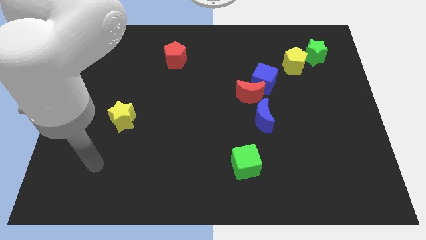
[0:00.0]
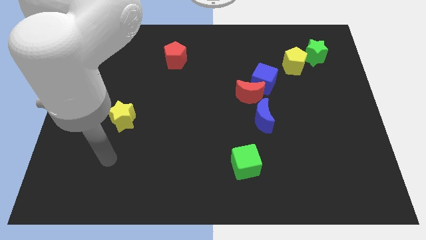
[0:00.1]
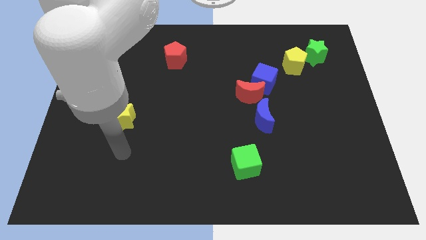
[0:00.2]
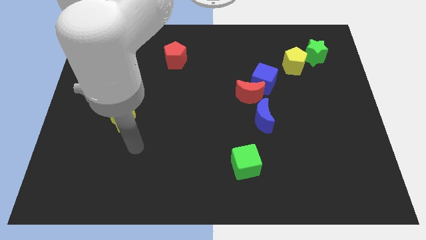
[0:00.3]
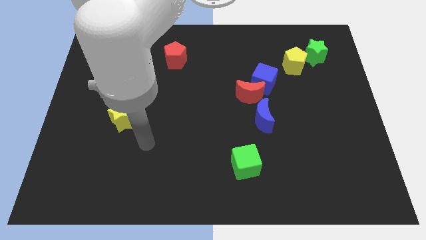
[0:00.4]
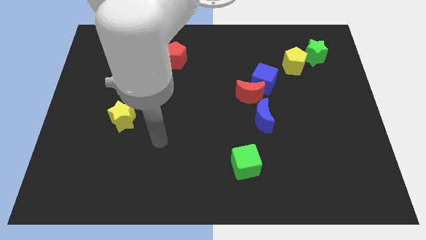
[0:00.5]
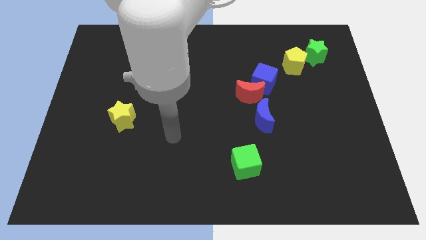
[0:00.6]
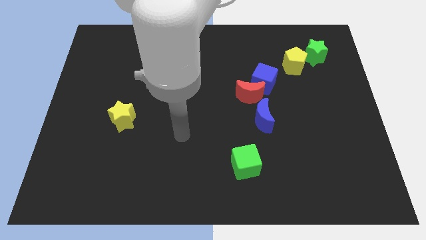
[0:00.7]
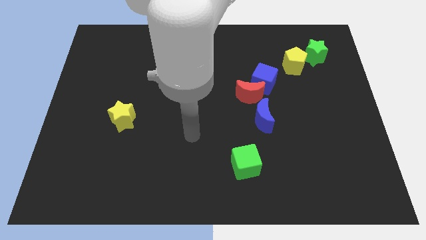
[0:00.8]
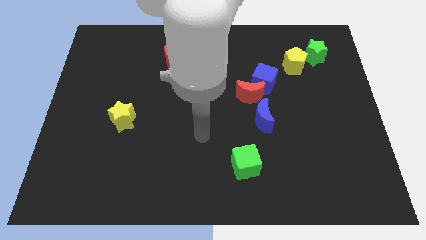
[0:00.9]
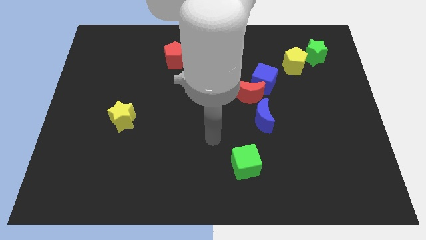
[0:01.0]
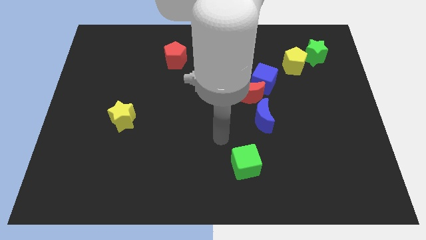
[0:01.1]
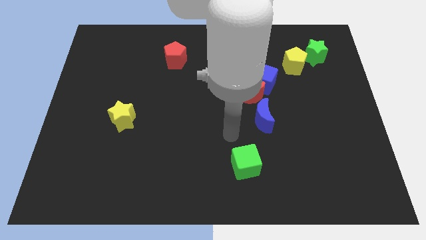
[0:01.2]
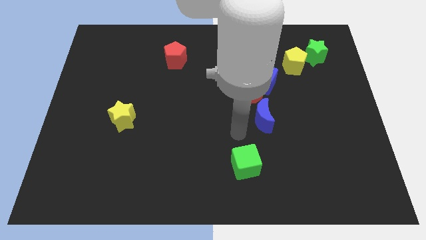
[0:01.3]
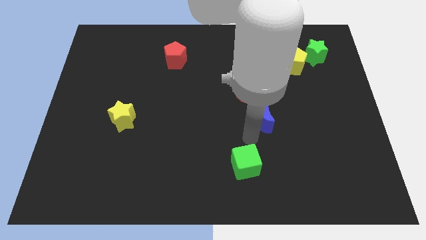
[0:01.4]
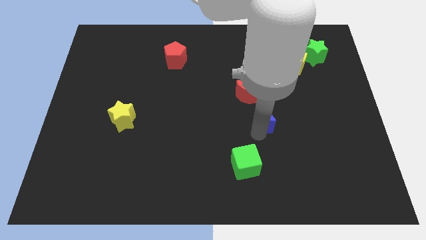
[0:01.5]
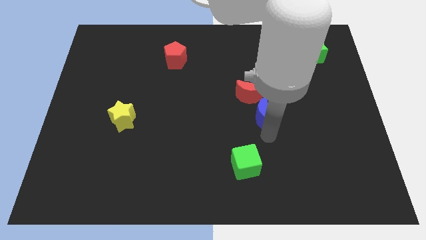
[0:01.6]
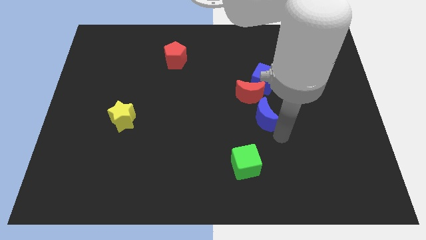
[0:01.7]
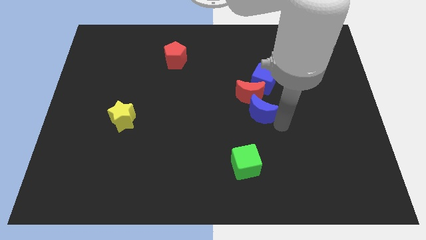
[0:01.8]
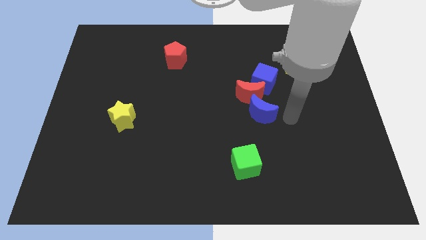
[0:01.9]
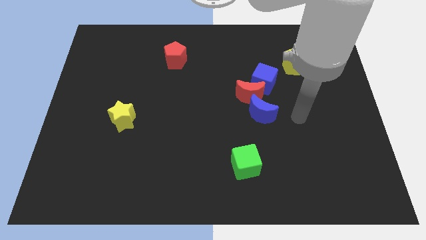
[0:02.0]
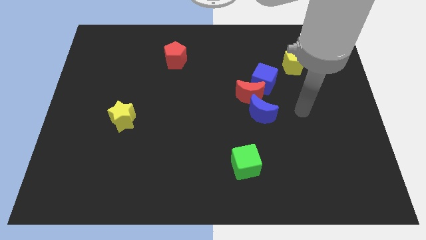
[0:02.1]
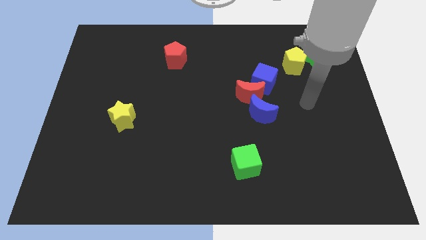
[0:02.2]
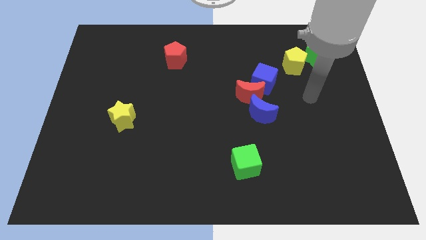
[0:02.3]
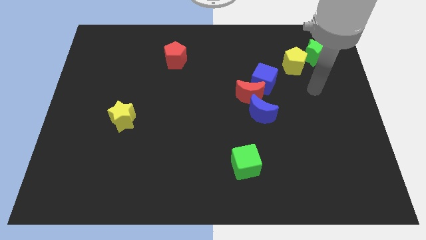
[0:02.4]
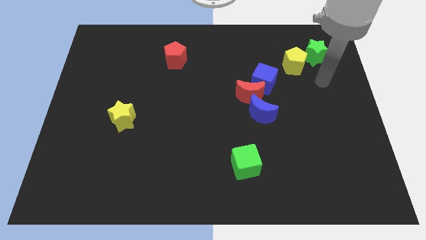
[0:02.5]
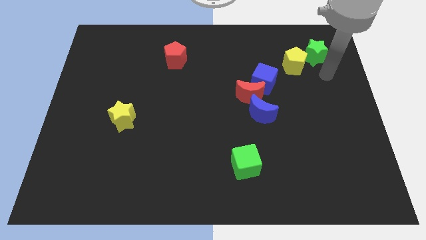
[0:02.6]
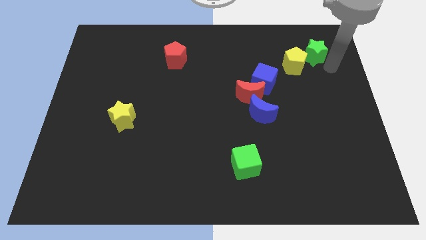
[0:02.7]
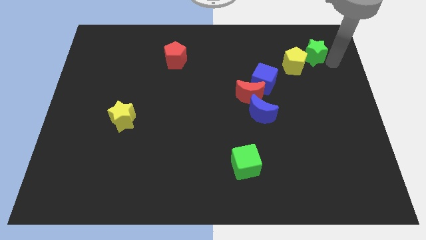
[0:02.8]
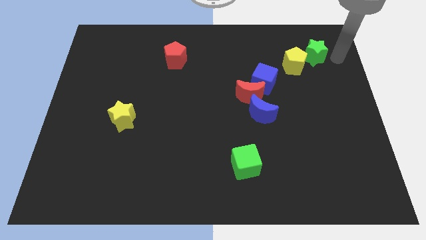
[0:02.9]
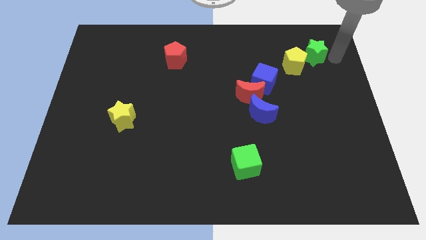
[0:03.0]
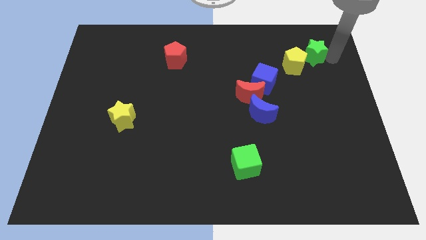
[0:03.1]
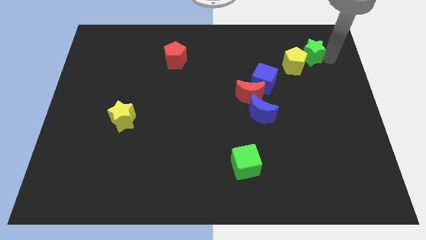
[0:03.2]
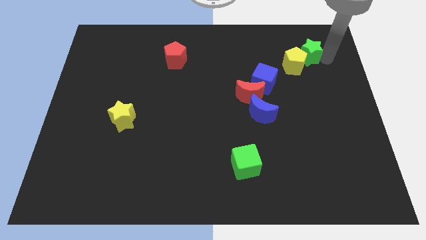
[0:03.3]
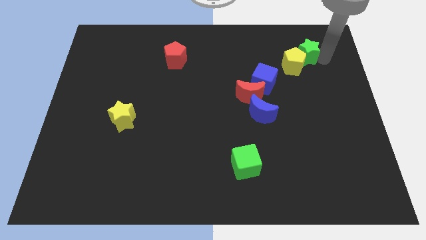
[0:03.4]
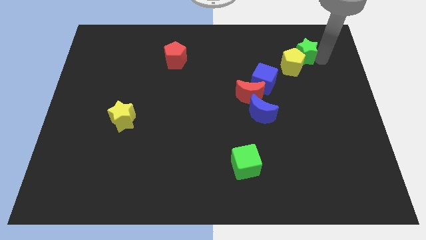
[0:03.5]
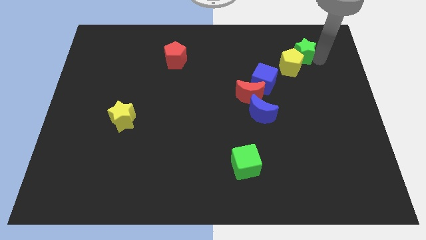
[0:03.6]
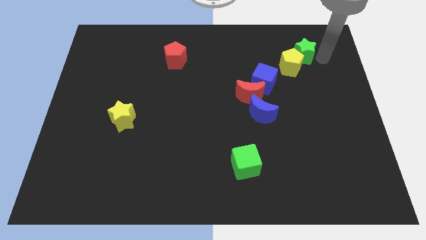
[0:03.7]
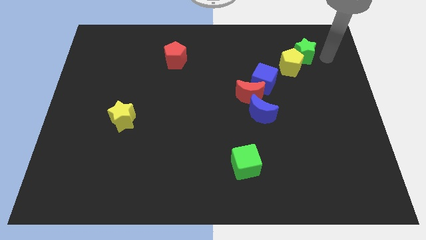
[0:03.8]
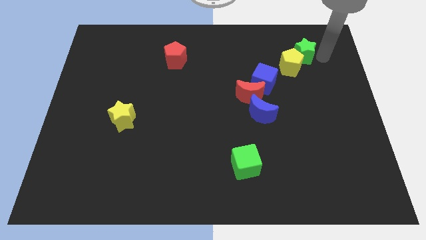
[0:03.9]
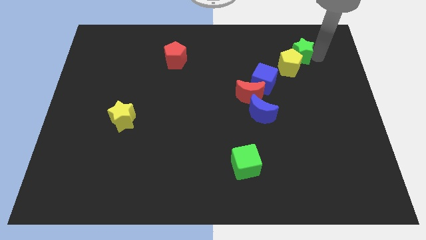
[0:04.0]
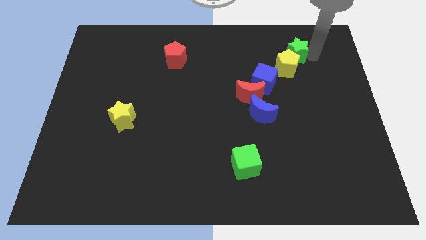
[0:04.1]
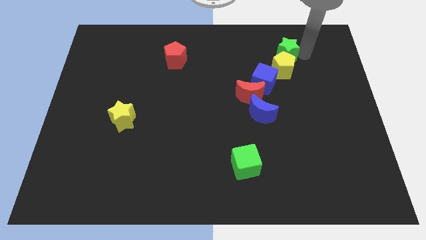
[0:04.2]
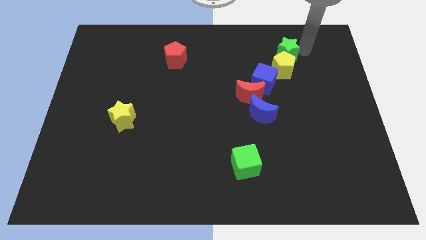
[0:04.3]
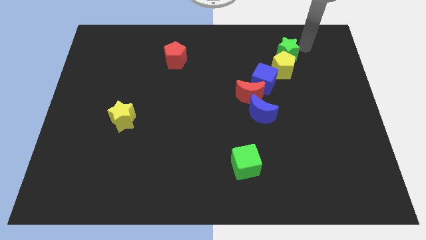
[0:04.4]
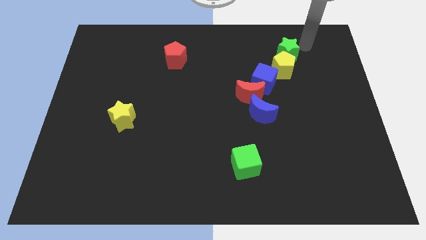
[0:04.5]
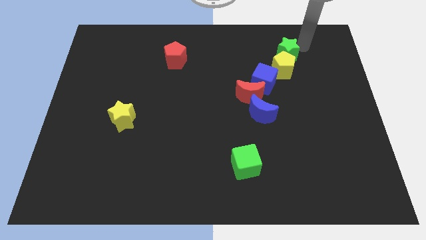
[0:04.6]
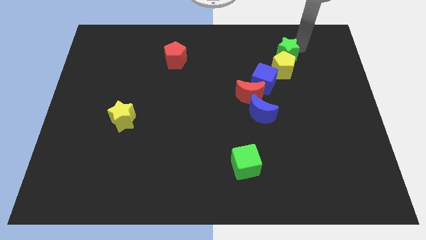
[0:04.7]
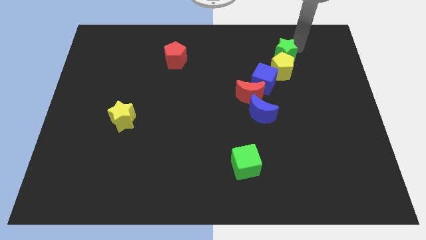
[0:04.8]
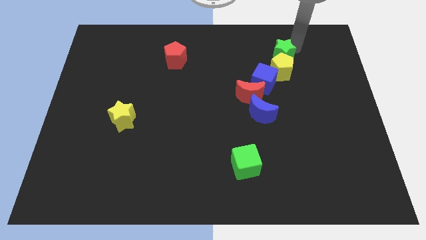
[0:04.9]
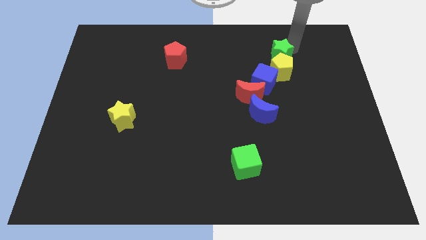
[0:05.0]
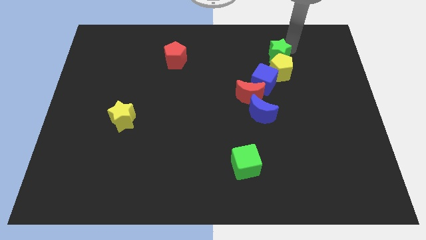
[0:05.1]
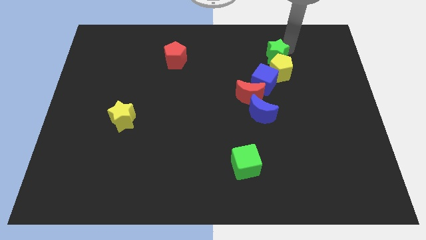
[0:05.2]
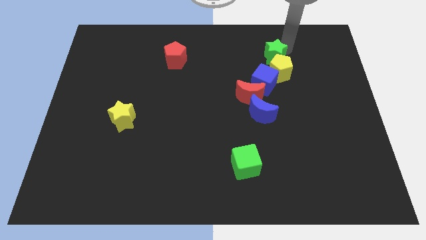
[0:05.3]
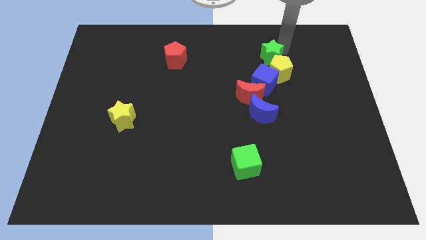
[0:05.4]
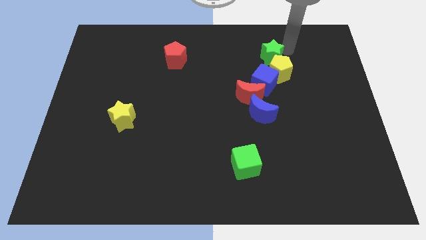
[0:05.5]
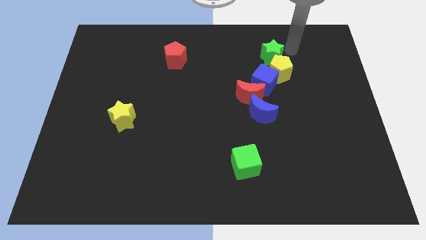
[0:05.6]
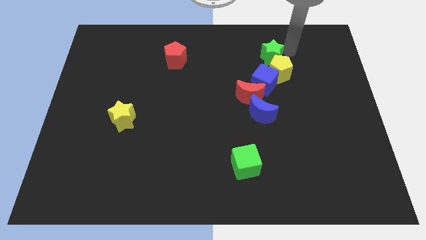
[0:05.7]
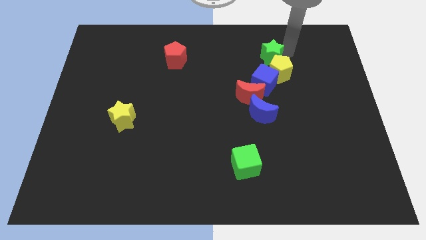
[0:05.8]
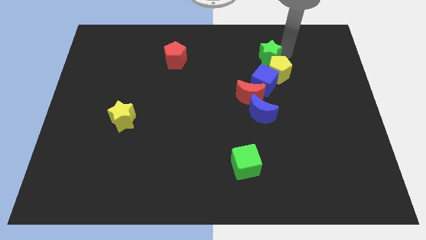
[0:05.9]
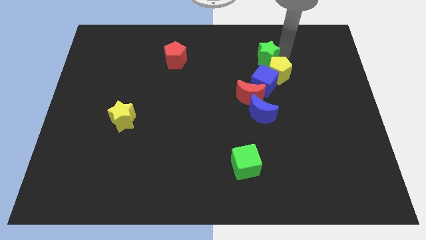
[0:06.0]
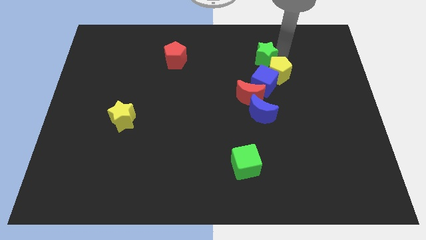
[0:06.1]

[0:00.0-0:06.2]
move the green star to the top of the red moon

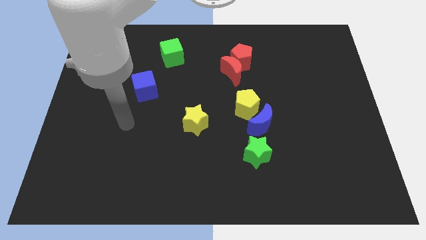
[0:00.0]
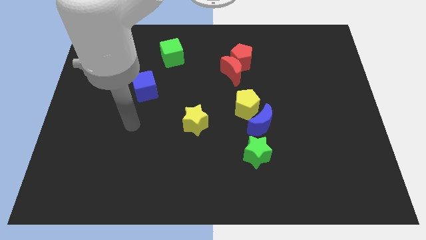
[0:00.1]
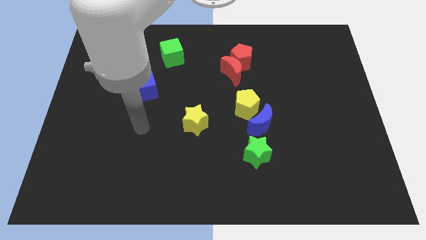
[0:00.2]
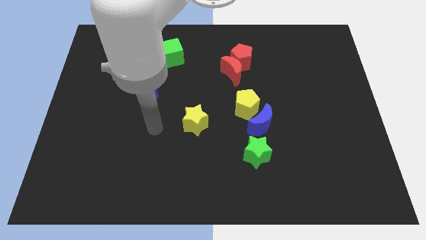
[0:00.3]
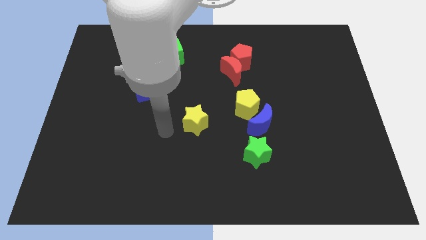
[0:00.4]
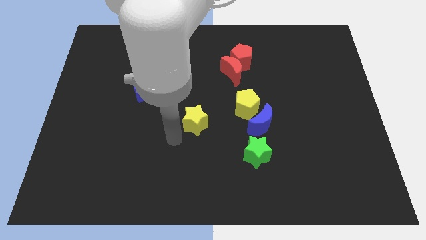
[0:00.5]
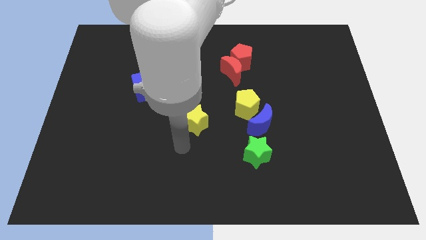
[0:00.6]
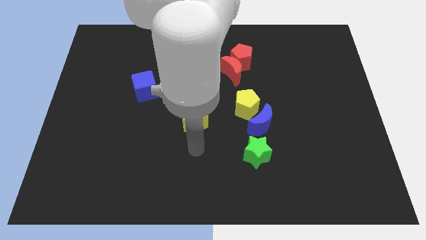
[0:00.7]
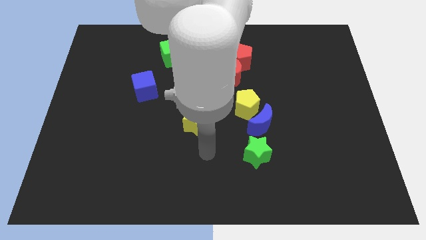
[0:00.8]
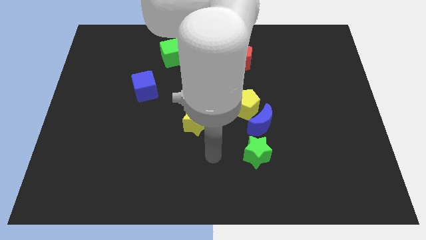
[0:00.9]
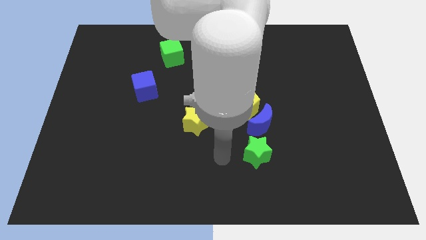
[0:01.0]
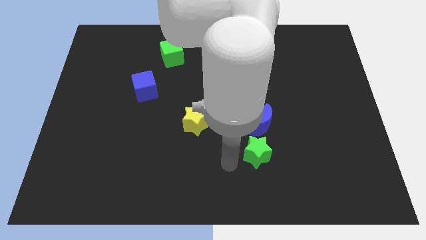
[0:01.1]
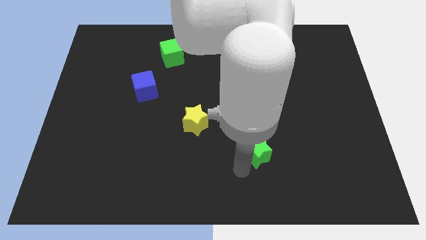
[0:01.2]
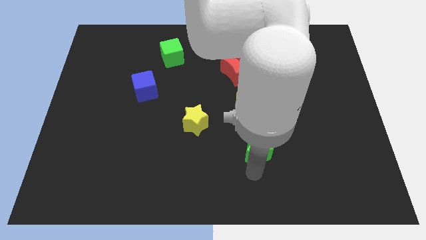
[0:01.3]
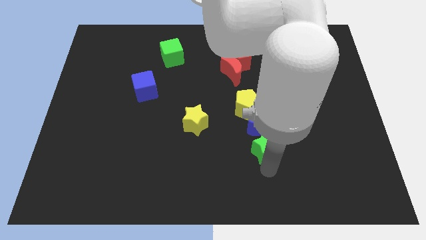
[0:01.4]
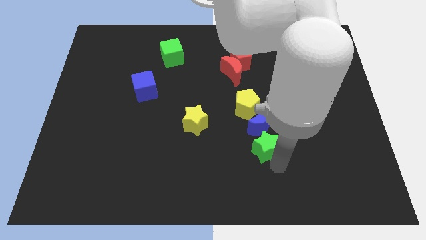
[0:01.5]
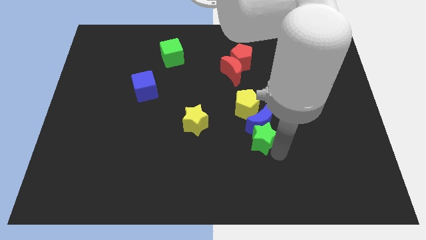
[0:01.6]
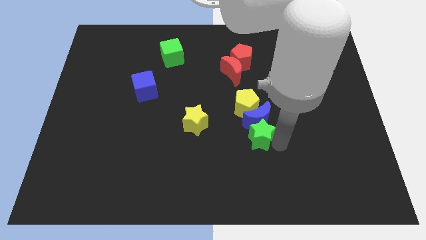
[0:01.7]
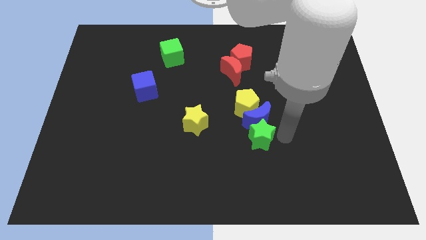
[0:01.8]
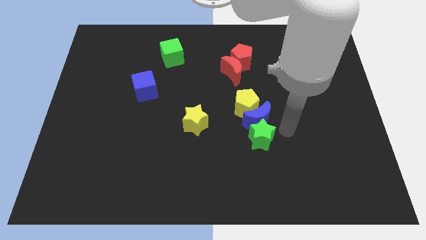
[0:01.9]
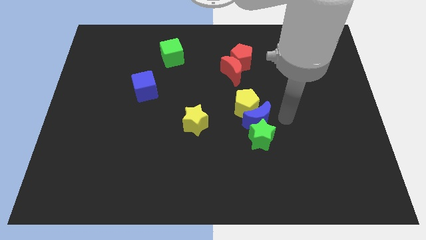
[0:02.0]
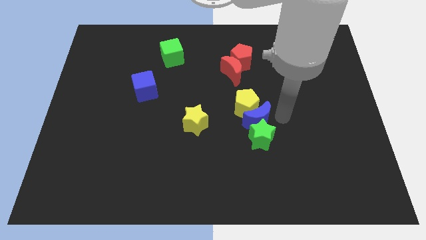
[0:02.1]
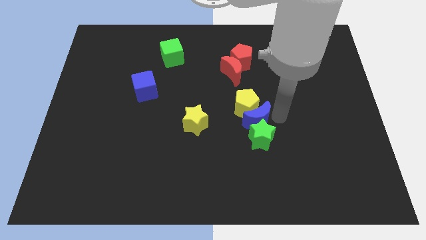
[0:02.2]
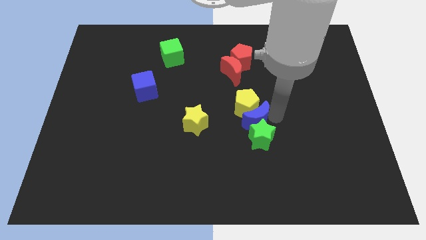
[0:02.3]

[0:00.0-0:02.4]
move the blue moon to the bottom left side of the yellow pentagon
